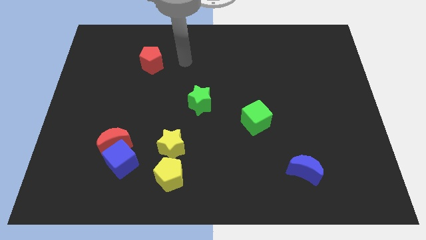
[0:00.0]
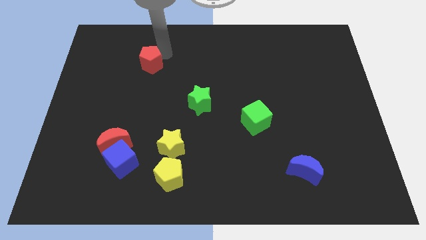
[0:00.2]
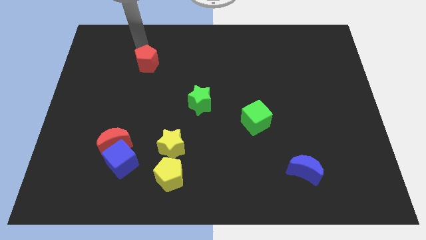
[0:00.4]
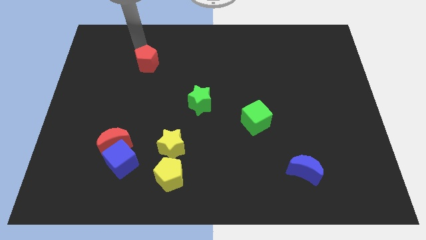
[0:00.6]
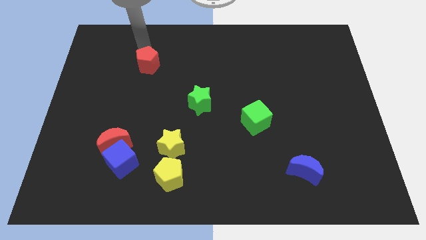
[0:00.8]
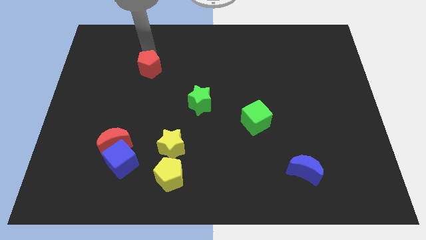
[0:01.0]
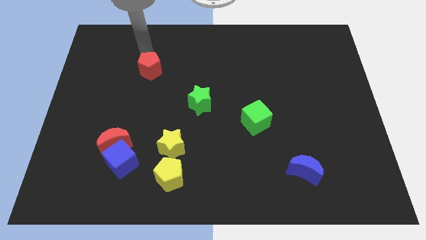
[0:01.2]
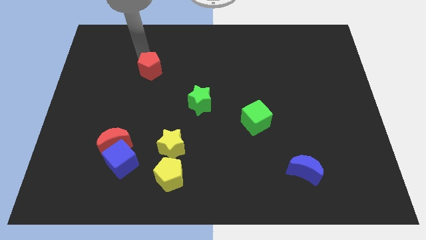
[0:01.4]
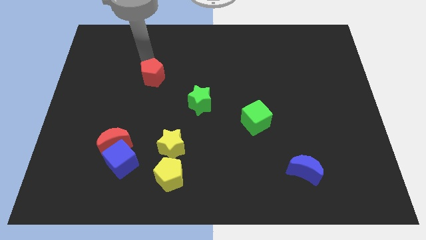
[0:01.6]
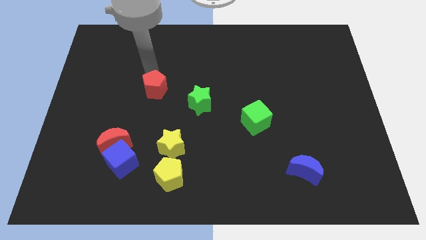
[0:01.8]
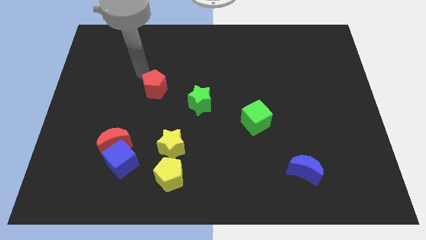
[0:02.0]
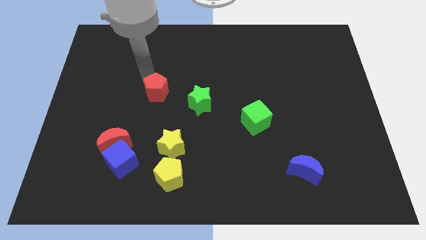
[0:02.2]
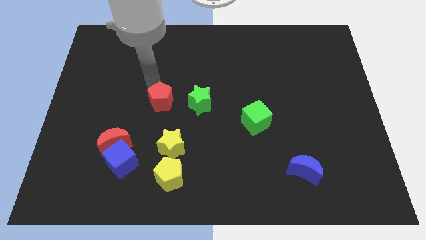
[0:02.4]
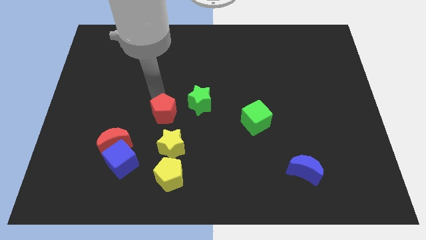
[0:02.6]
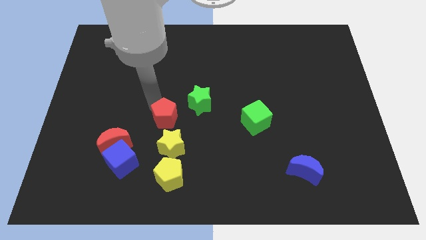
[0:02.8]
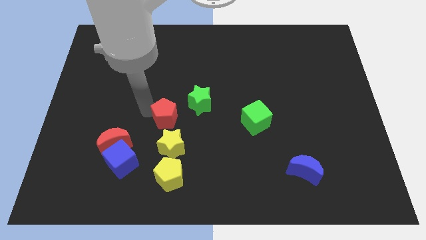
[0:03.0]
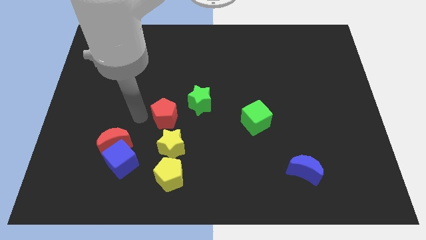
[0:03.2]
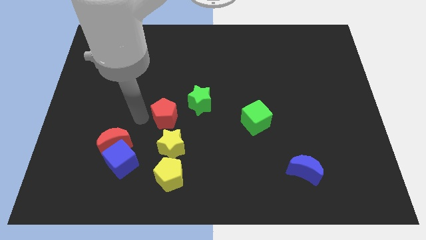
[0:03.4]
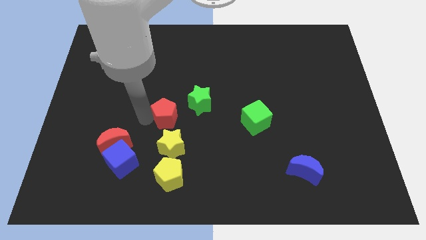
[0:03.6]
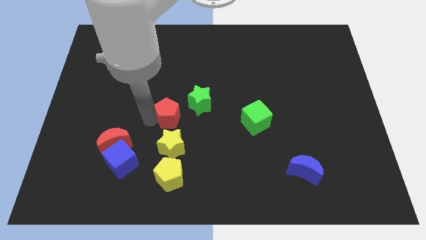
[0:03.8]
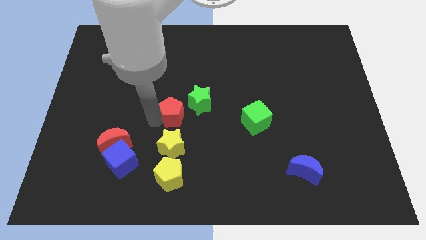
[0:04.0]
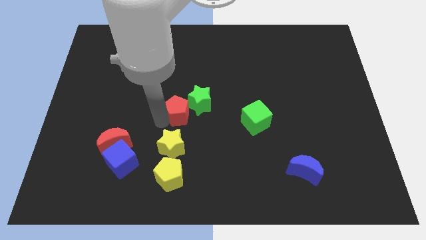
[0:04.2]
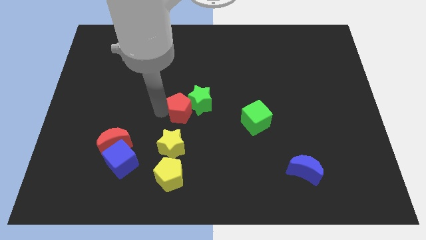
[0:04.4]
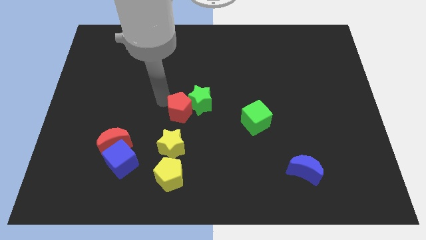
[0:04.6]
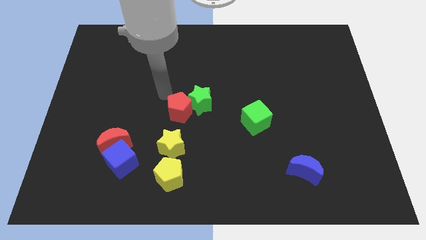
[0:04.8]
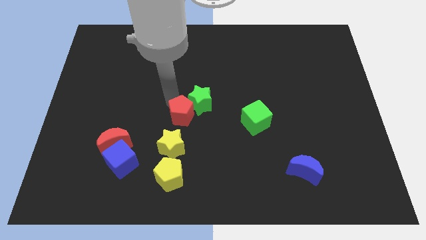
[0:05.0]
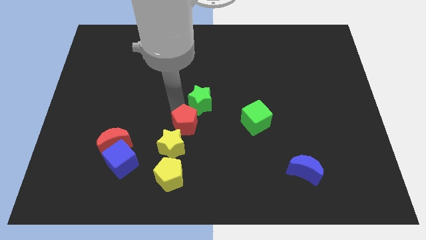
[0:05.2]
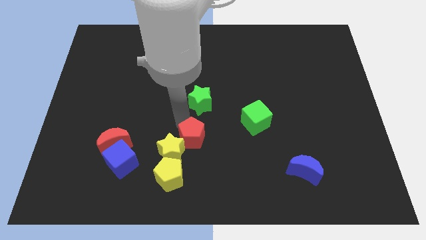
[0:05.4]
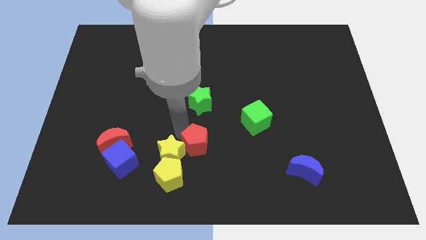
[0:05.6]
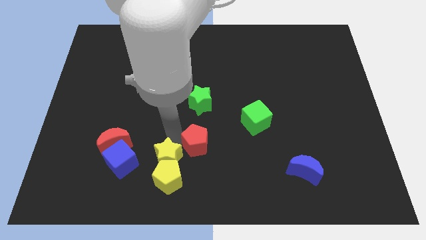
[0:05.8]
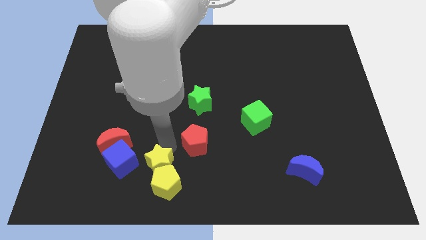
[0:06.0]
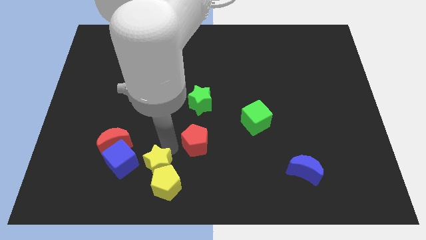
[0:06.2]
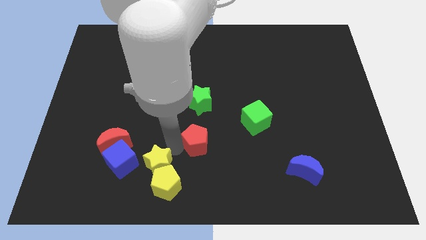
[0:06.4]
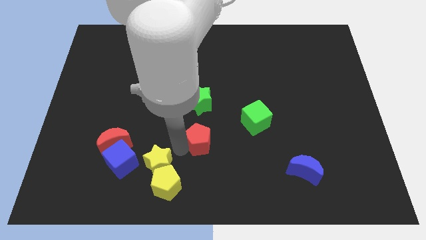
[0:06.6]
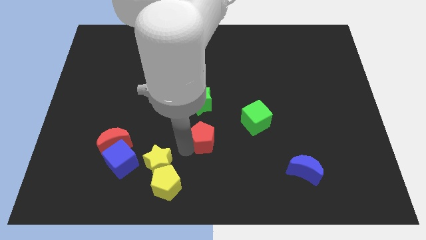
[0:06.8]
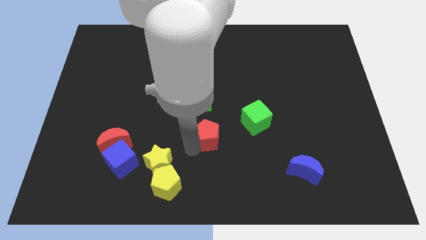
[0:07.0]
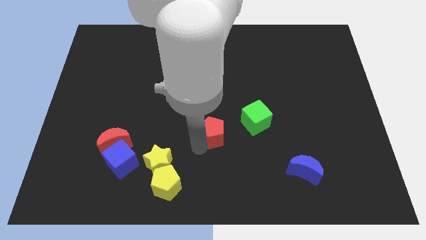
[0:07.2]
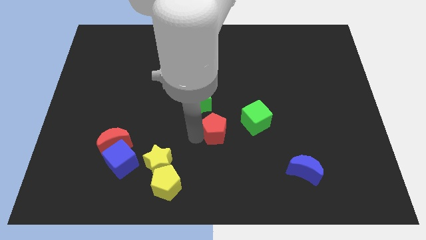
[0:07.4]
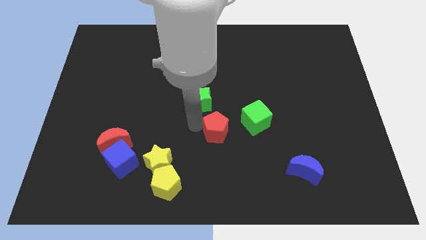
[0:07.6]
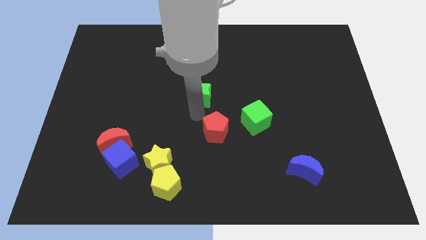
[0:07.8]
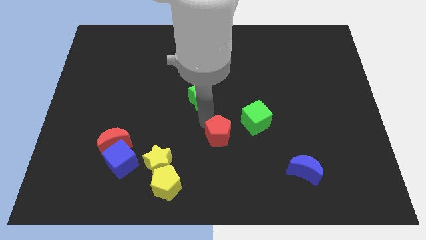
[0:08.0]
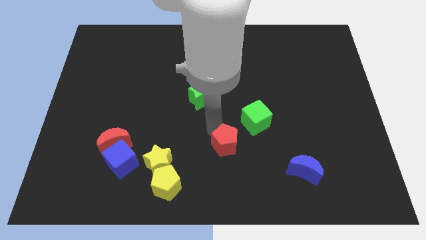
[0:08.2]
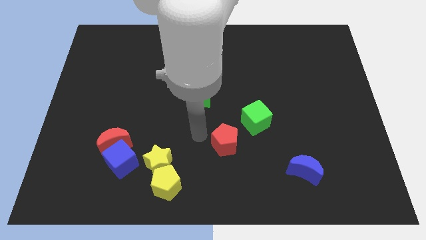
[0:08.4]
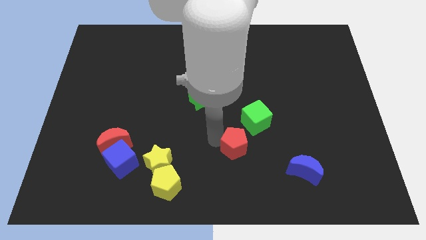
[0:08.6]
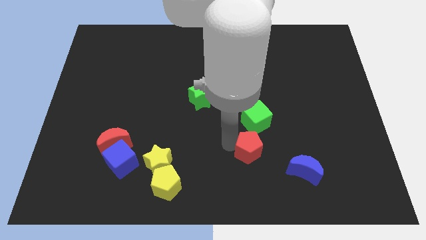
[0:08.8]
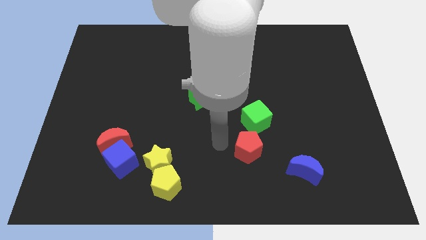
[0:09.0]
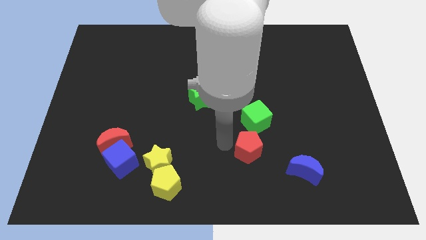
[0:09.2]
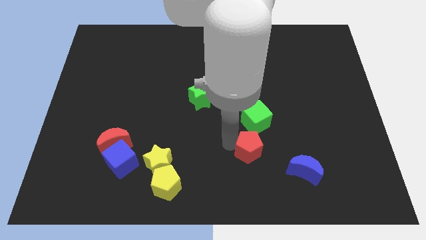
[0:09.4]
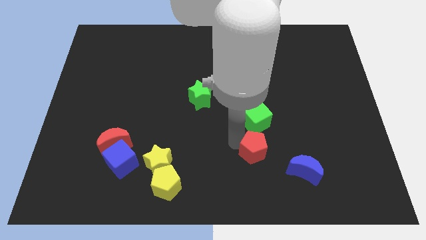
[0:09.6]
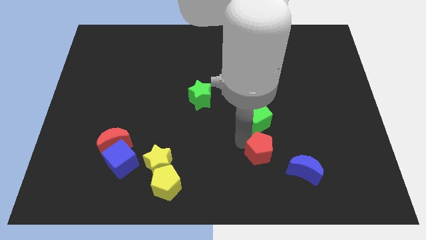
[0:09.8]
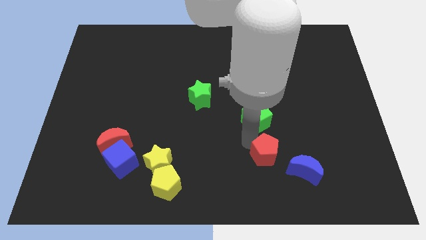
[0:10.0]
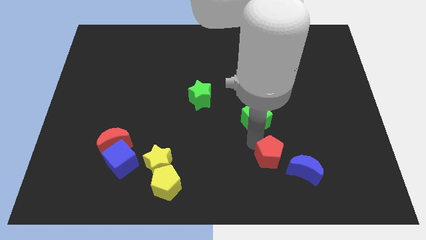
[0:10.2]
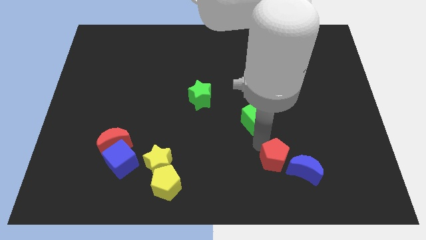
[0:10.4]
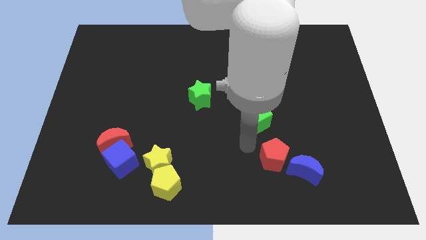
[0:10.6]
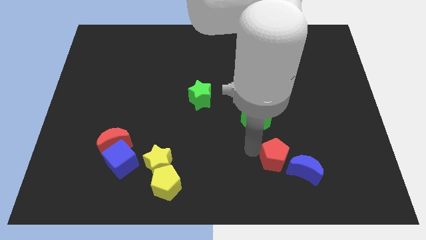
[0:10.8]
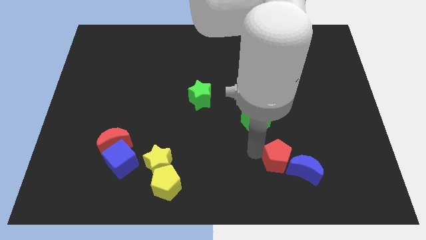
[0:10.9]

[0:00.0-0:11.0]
slide the red pentagon to the blue moon

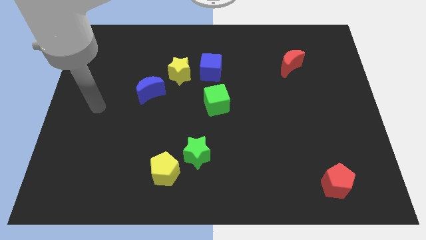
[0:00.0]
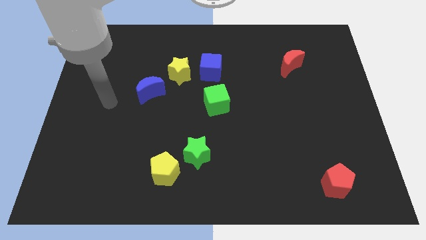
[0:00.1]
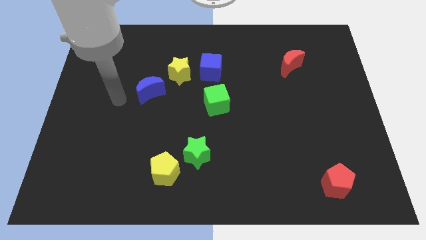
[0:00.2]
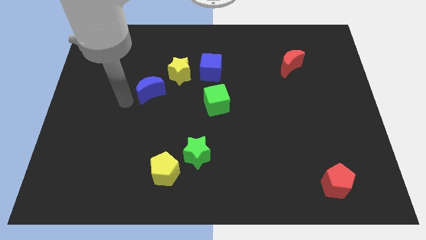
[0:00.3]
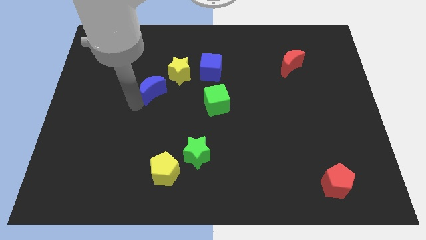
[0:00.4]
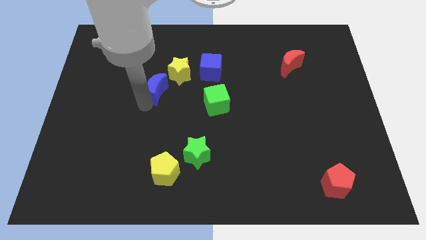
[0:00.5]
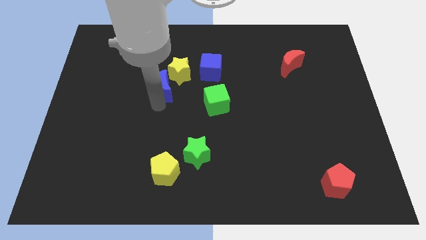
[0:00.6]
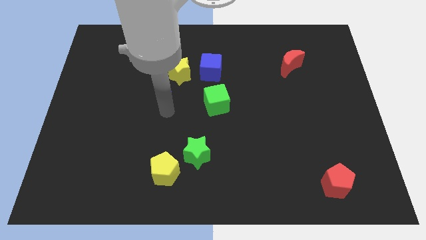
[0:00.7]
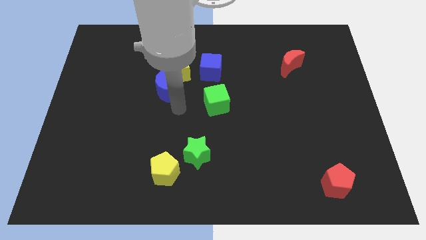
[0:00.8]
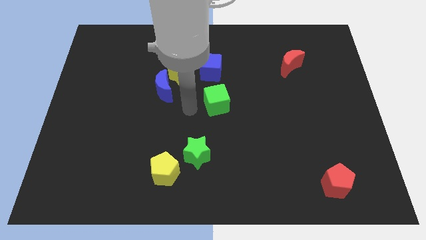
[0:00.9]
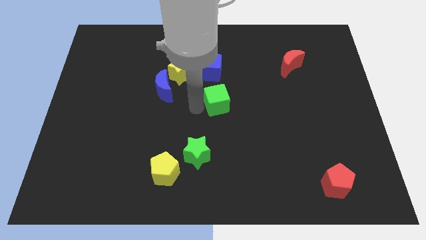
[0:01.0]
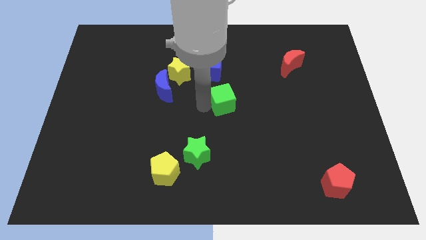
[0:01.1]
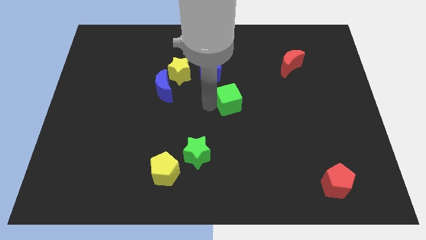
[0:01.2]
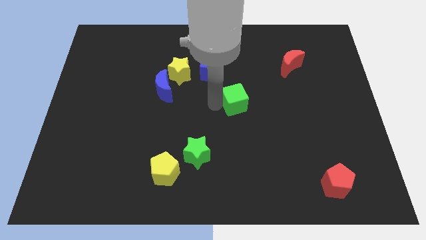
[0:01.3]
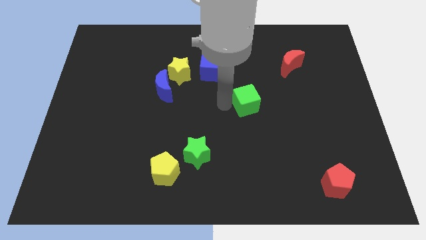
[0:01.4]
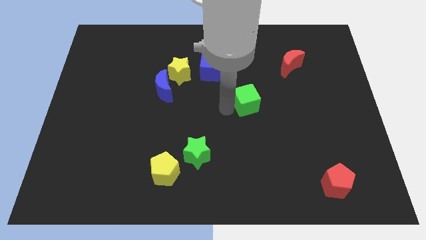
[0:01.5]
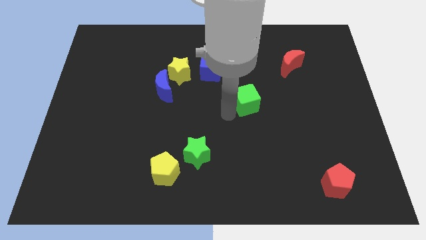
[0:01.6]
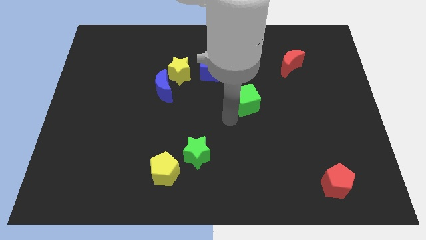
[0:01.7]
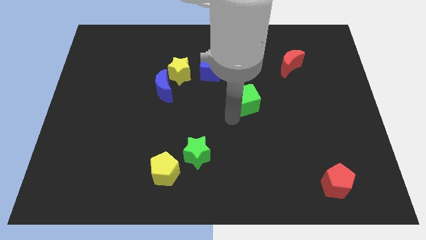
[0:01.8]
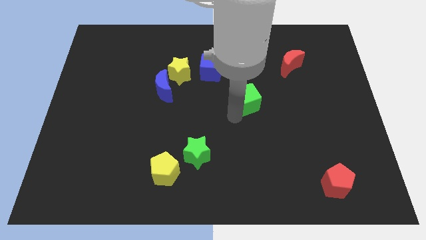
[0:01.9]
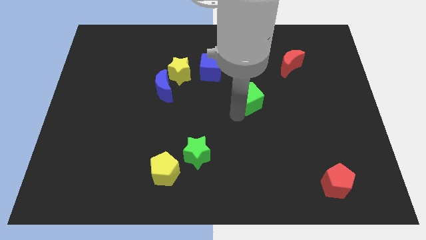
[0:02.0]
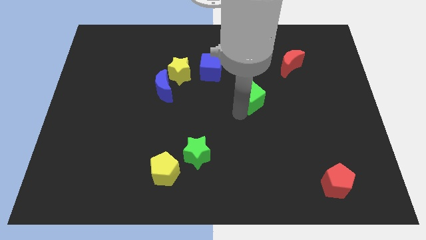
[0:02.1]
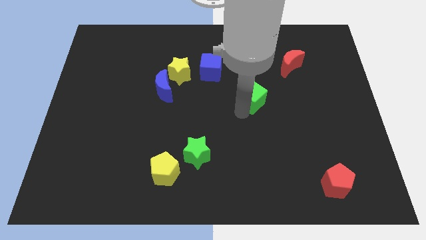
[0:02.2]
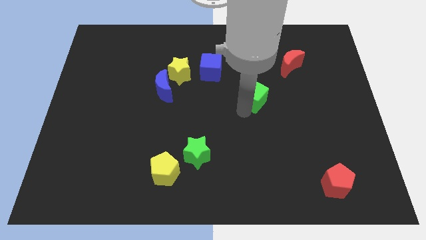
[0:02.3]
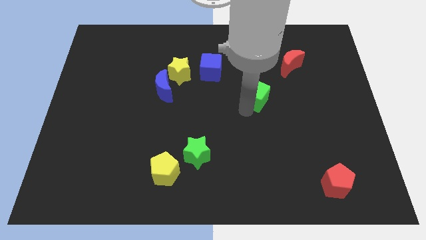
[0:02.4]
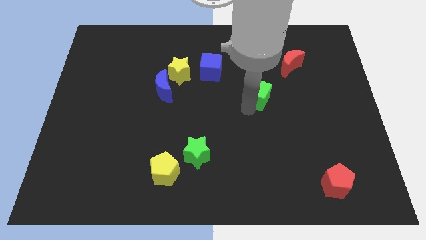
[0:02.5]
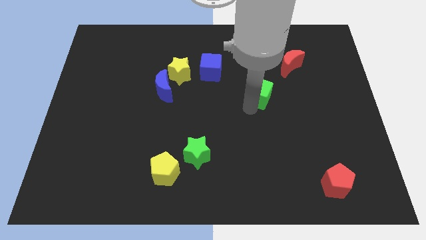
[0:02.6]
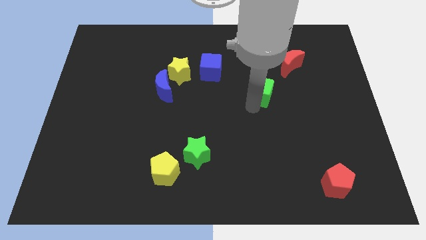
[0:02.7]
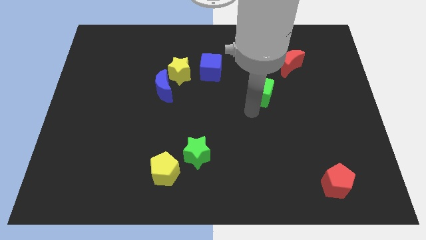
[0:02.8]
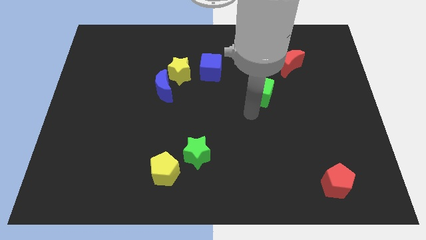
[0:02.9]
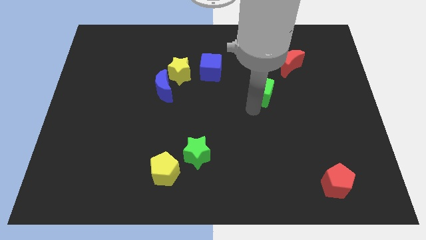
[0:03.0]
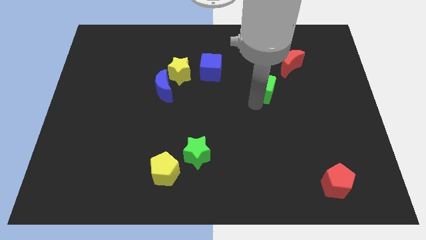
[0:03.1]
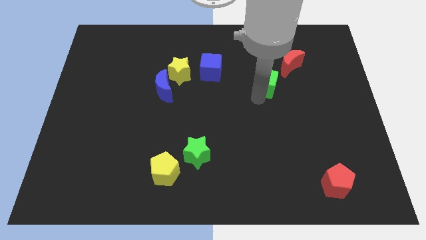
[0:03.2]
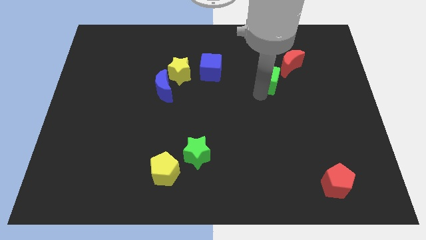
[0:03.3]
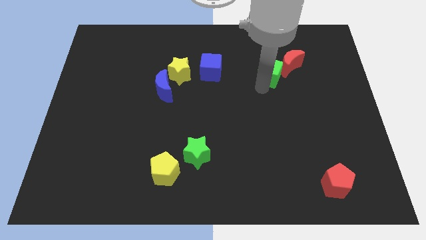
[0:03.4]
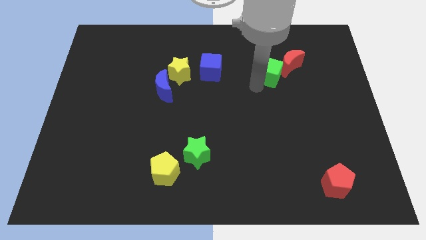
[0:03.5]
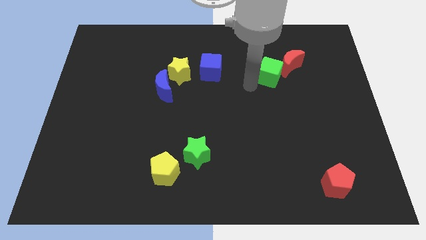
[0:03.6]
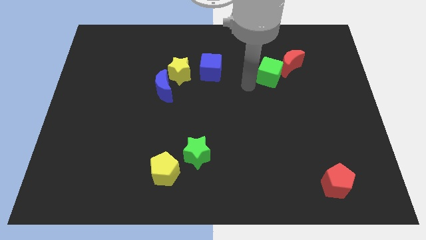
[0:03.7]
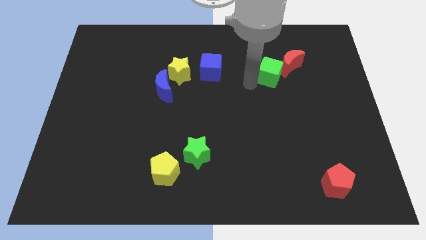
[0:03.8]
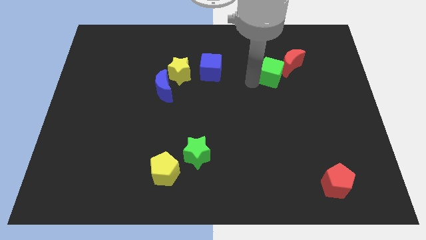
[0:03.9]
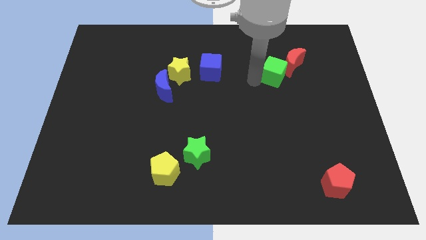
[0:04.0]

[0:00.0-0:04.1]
move the green cube towards the red moon
